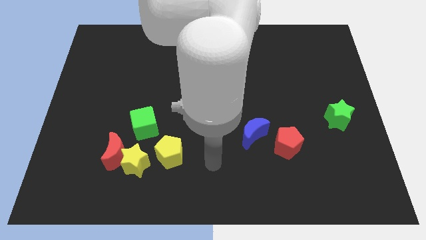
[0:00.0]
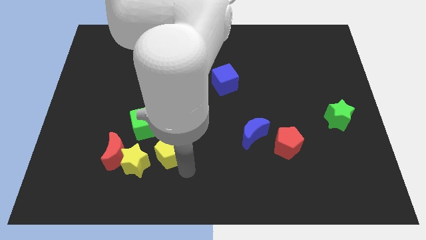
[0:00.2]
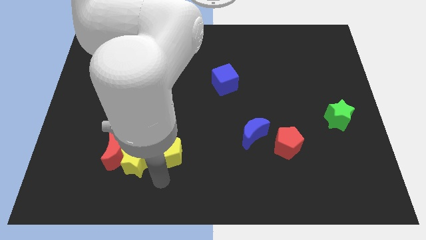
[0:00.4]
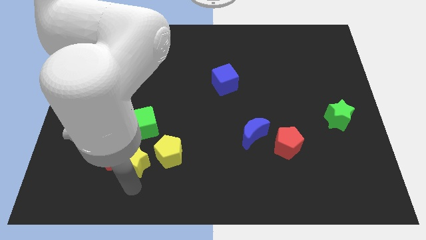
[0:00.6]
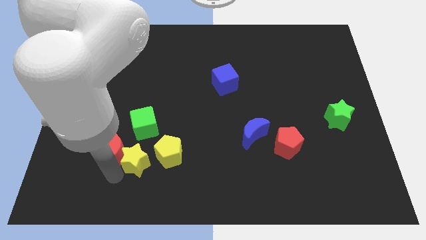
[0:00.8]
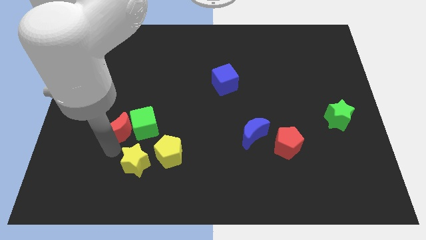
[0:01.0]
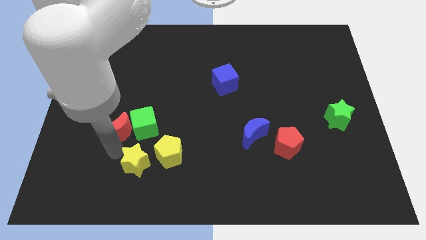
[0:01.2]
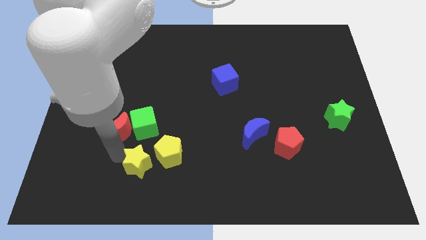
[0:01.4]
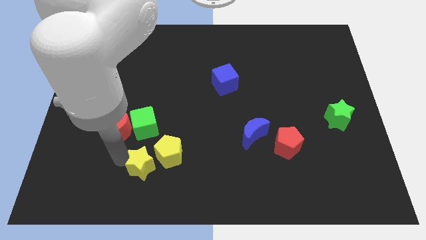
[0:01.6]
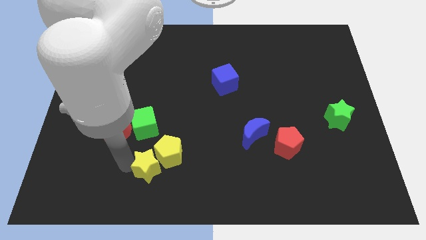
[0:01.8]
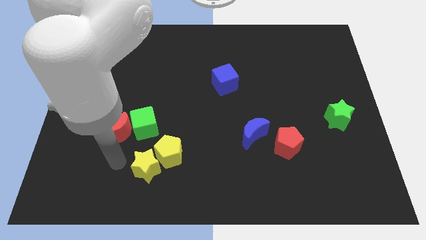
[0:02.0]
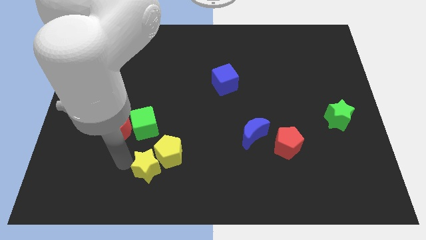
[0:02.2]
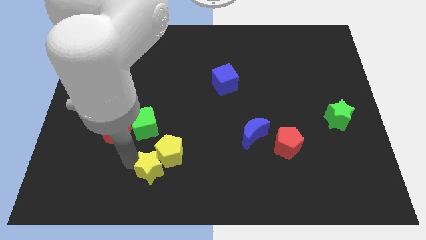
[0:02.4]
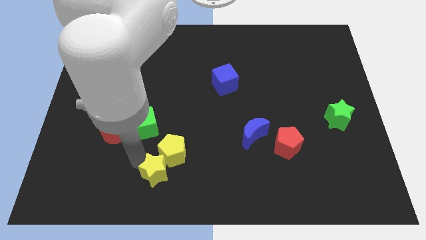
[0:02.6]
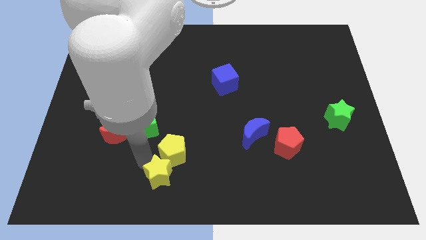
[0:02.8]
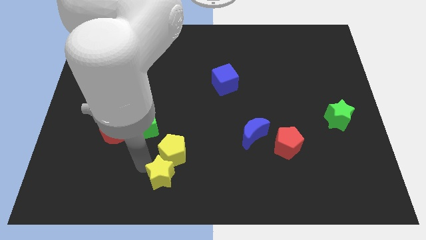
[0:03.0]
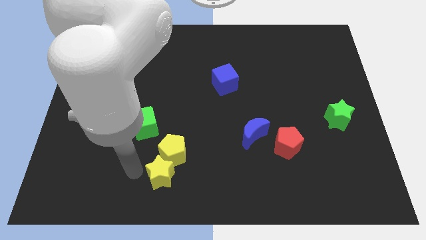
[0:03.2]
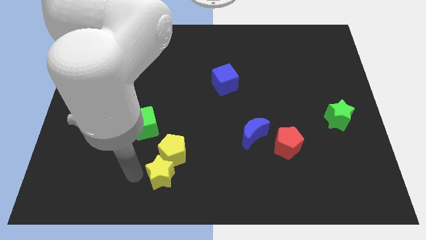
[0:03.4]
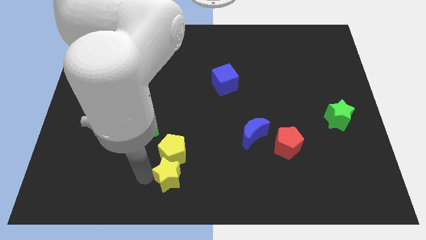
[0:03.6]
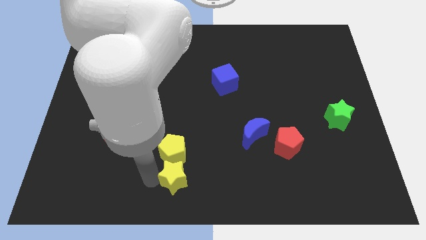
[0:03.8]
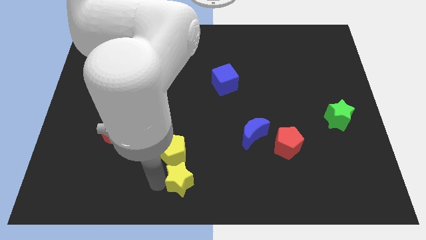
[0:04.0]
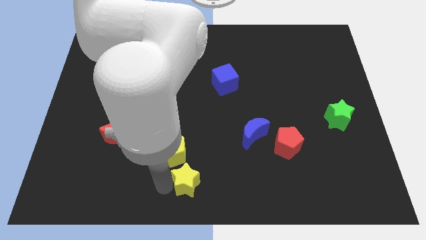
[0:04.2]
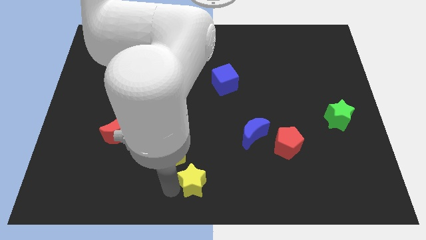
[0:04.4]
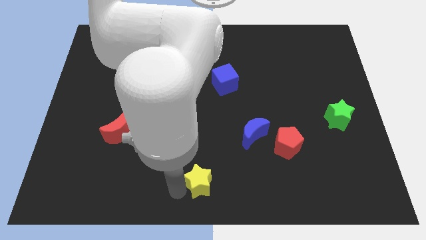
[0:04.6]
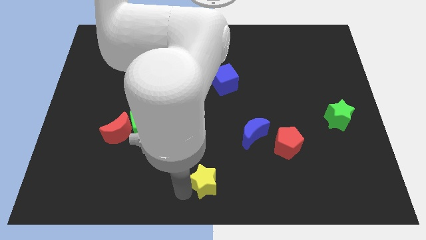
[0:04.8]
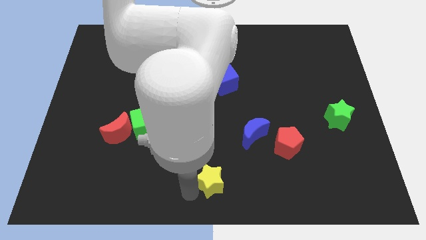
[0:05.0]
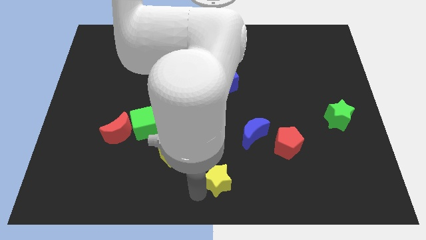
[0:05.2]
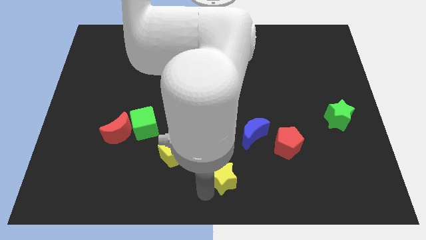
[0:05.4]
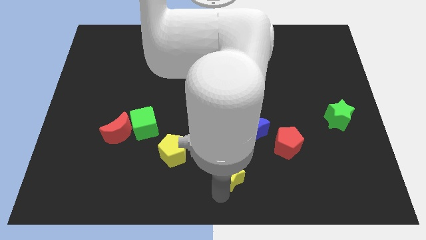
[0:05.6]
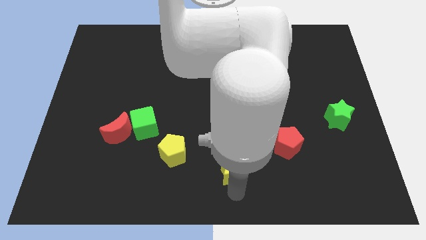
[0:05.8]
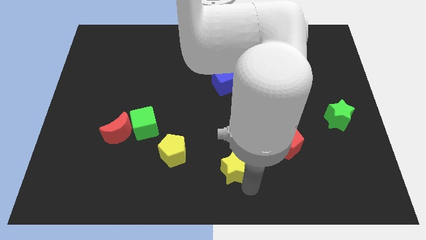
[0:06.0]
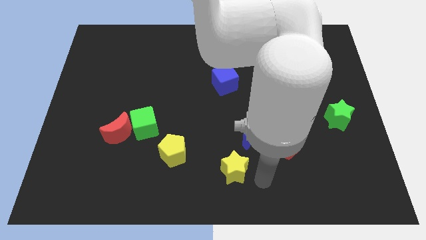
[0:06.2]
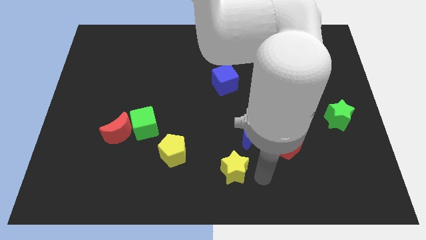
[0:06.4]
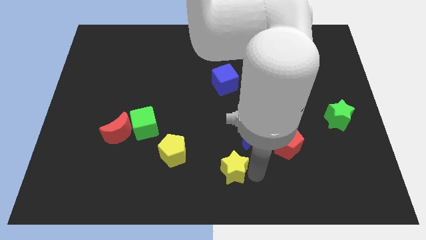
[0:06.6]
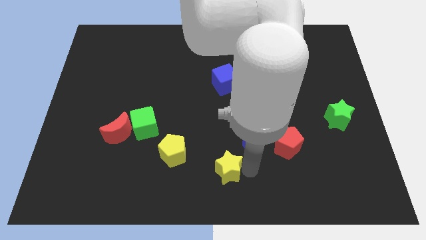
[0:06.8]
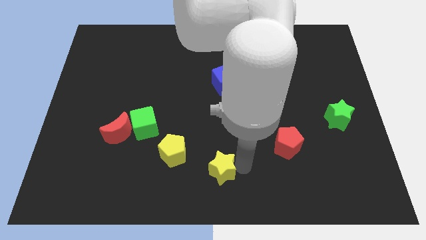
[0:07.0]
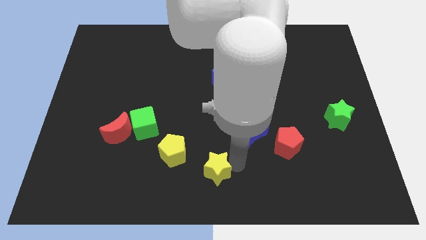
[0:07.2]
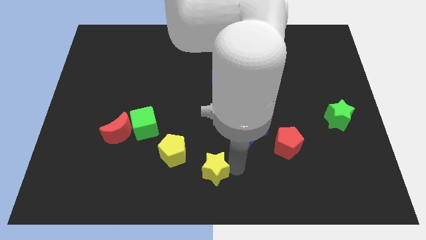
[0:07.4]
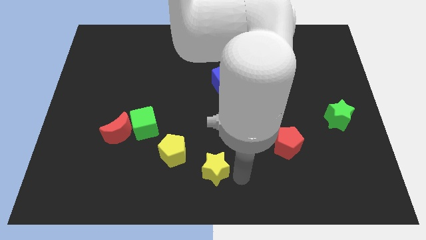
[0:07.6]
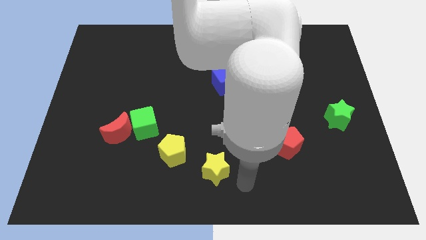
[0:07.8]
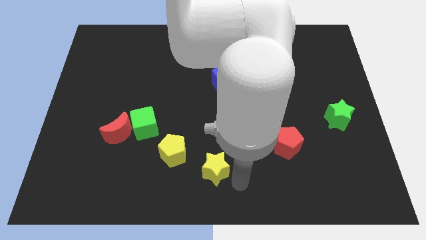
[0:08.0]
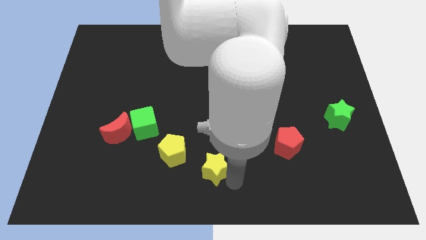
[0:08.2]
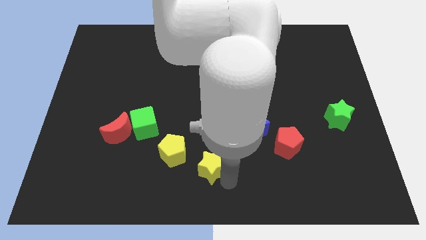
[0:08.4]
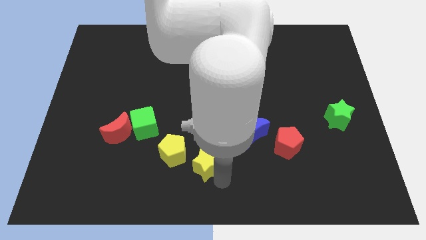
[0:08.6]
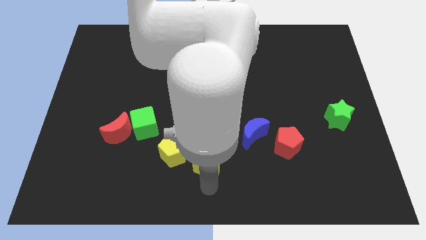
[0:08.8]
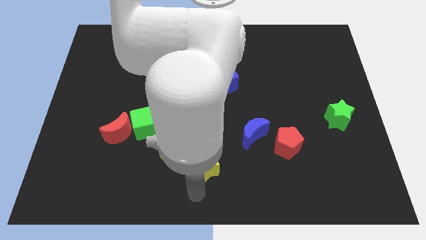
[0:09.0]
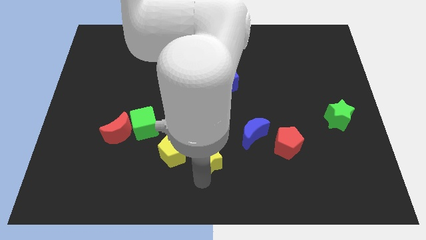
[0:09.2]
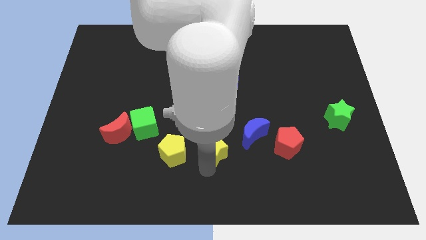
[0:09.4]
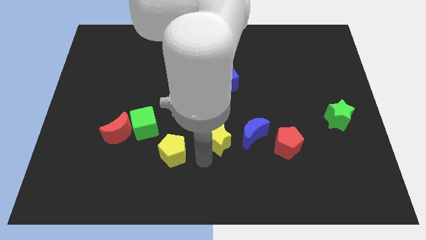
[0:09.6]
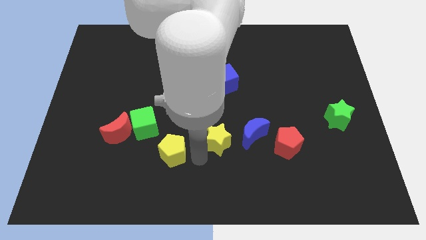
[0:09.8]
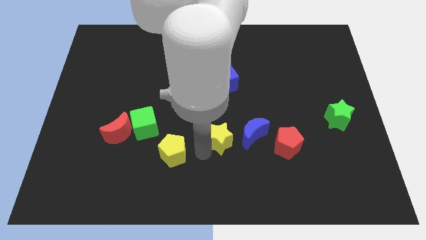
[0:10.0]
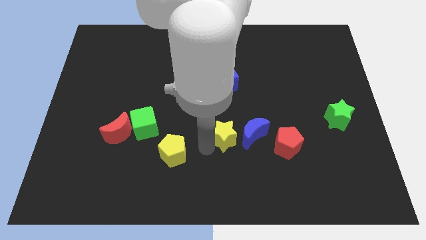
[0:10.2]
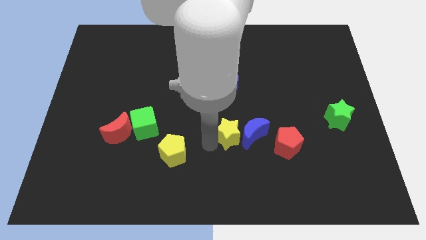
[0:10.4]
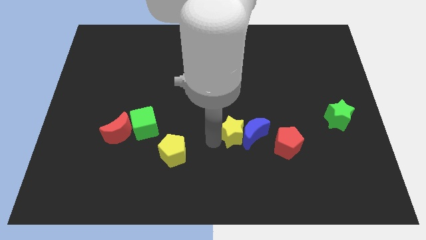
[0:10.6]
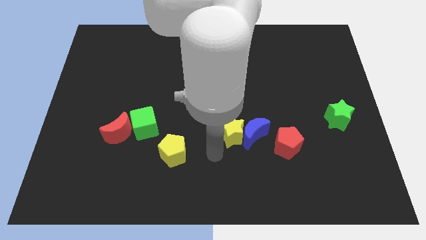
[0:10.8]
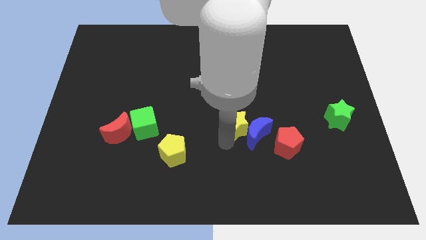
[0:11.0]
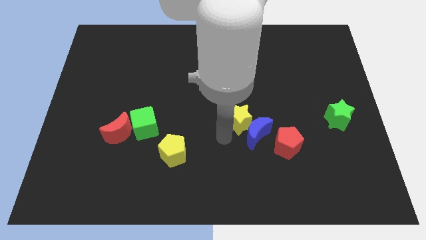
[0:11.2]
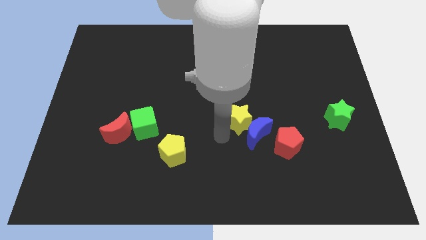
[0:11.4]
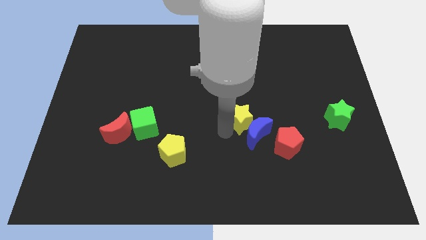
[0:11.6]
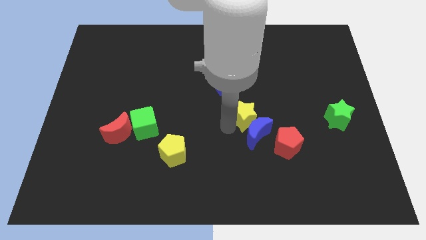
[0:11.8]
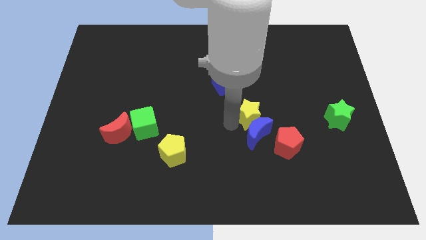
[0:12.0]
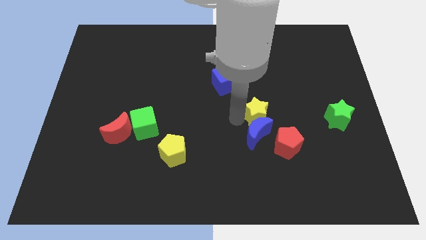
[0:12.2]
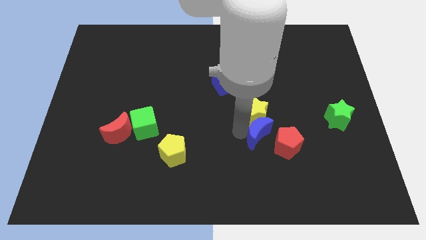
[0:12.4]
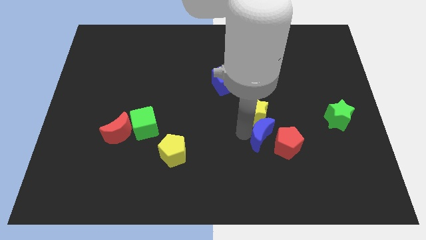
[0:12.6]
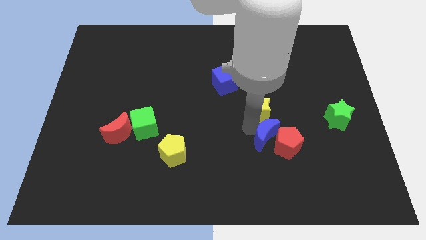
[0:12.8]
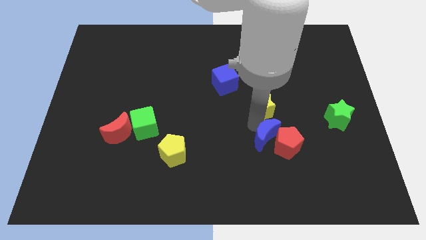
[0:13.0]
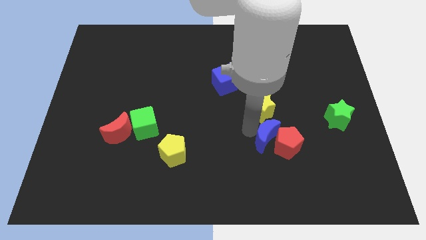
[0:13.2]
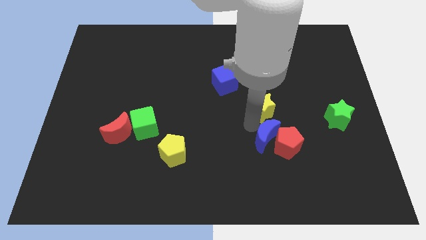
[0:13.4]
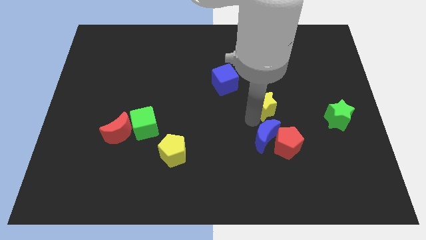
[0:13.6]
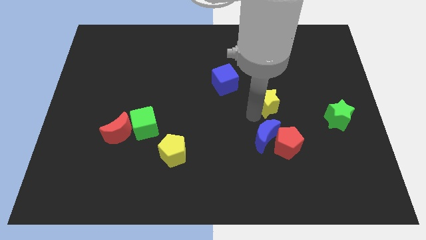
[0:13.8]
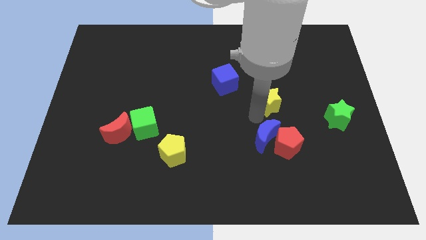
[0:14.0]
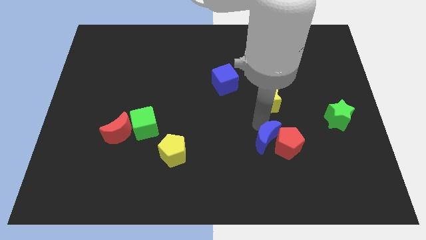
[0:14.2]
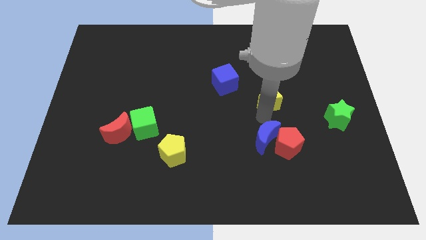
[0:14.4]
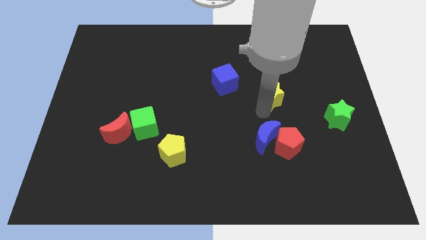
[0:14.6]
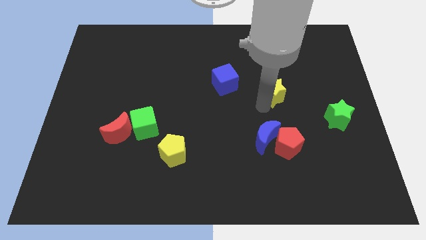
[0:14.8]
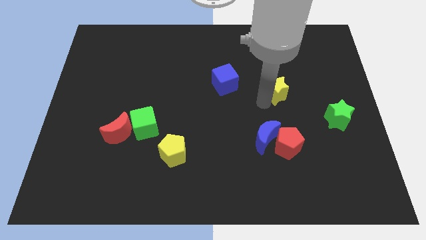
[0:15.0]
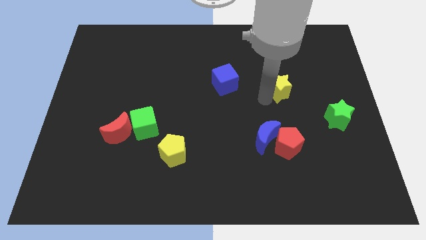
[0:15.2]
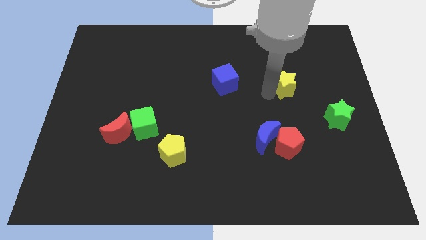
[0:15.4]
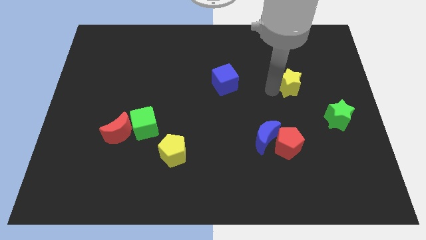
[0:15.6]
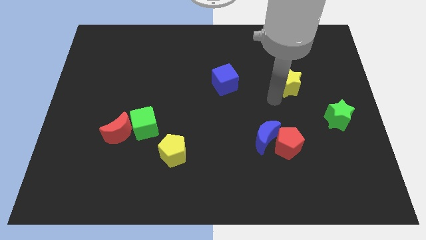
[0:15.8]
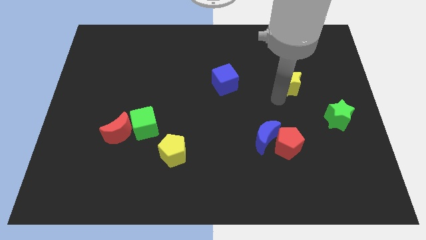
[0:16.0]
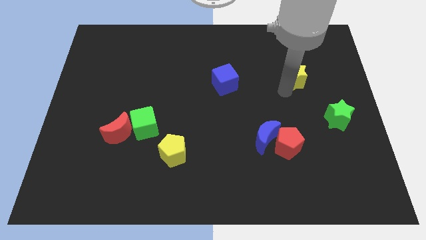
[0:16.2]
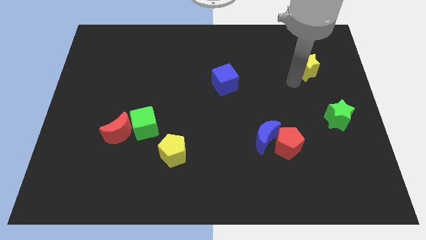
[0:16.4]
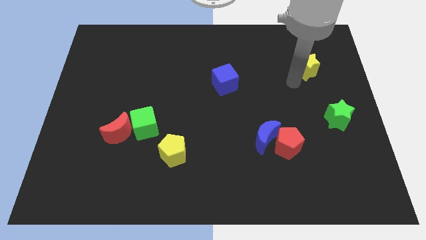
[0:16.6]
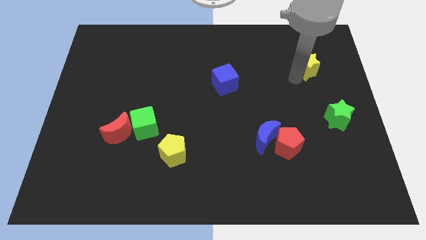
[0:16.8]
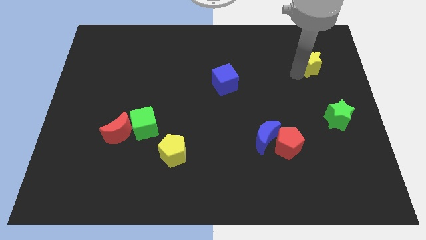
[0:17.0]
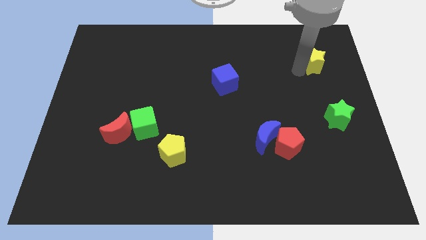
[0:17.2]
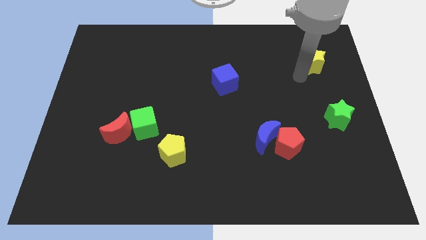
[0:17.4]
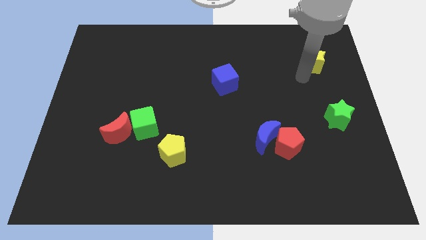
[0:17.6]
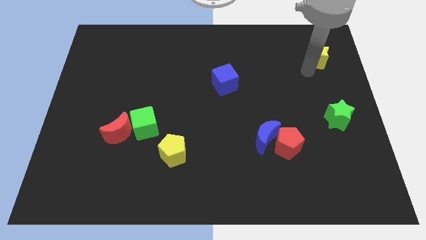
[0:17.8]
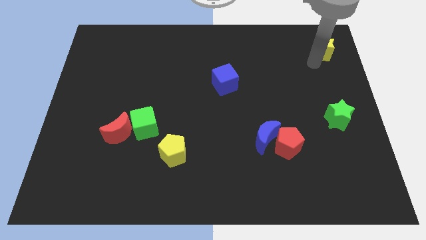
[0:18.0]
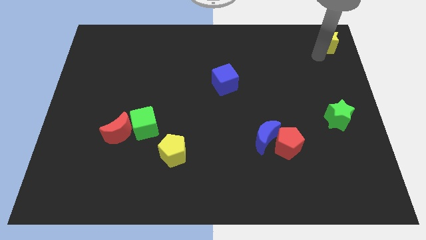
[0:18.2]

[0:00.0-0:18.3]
slide the yellow star to the top right of the board
